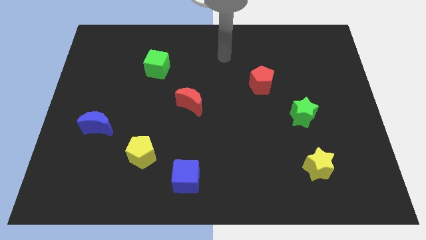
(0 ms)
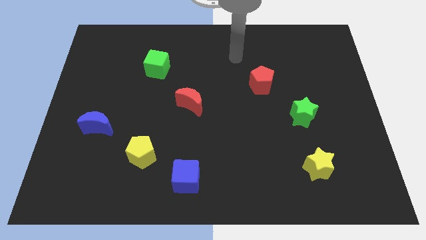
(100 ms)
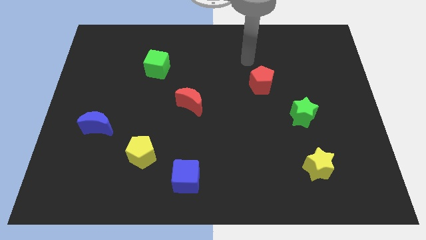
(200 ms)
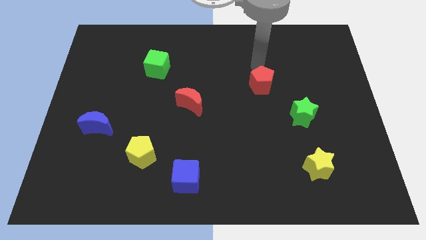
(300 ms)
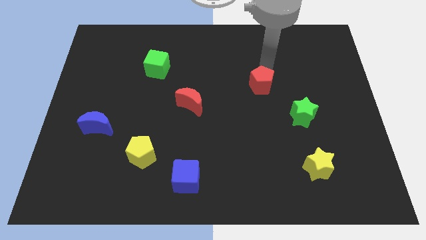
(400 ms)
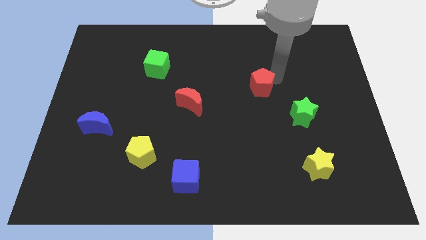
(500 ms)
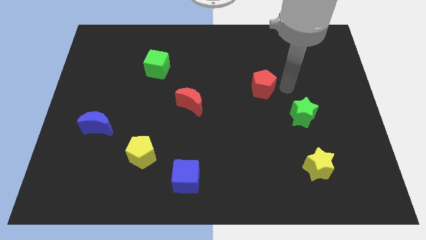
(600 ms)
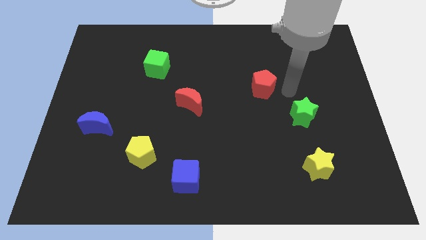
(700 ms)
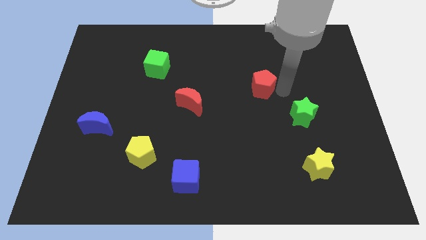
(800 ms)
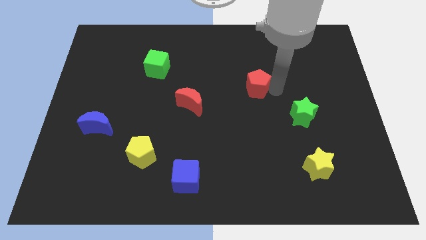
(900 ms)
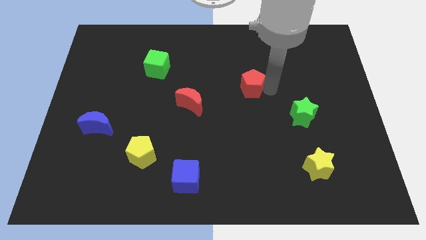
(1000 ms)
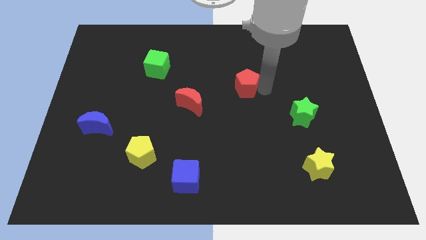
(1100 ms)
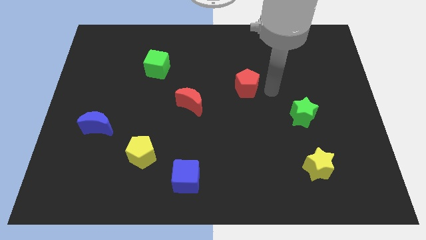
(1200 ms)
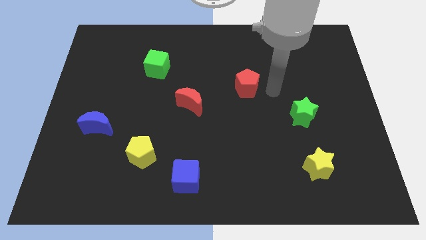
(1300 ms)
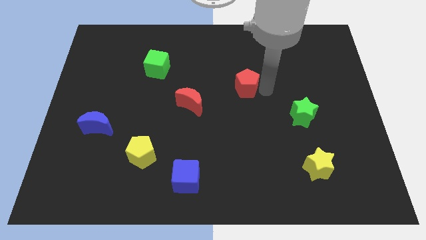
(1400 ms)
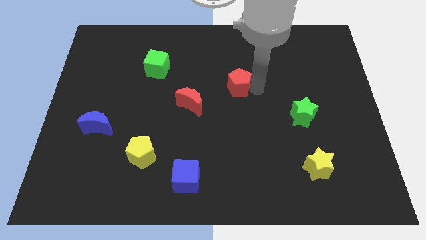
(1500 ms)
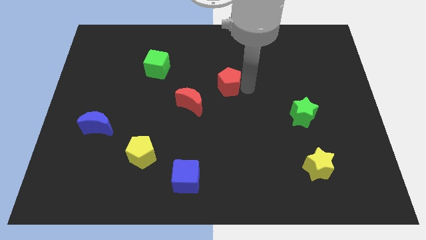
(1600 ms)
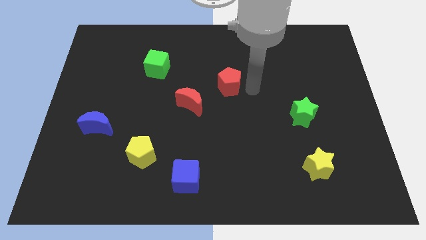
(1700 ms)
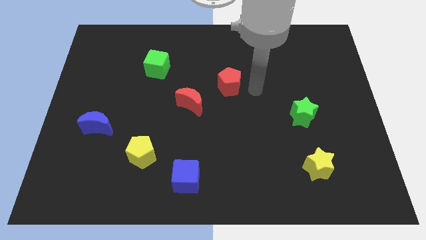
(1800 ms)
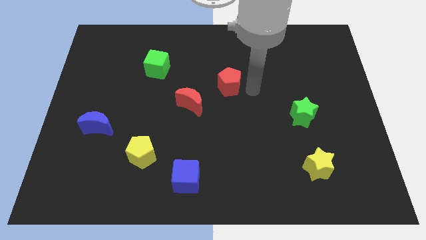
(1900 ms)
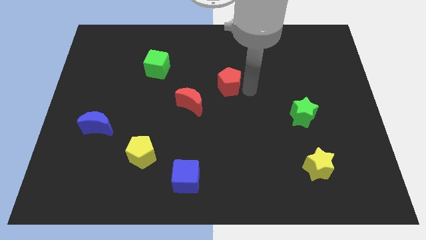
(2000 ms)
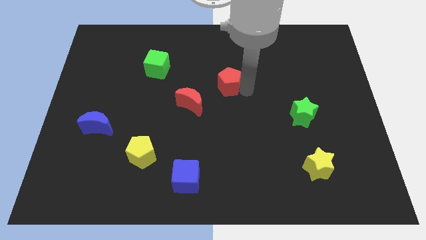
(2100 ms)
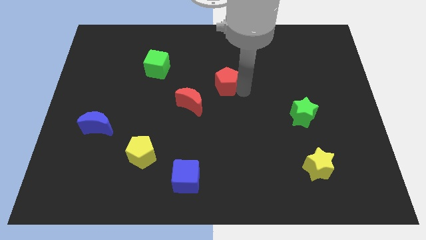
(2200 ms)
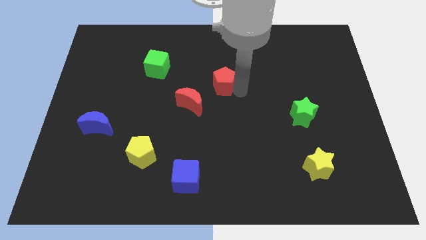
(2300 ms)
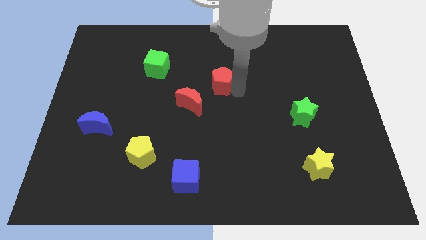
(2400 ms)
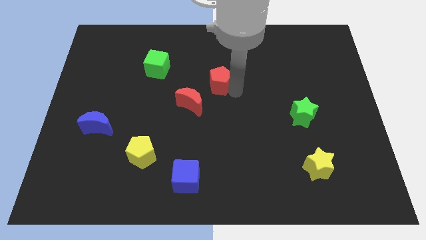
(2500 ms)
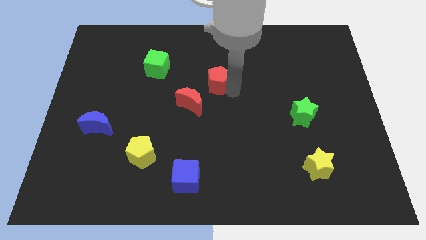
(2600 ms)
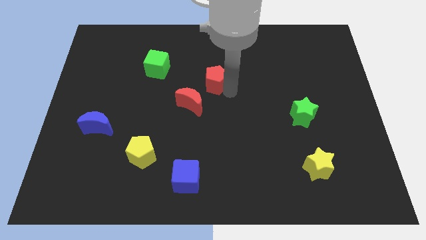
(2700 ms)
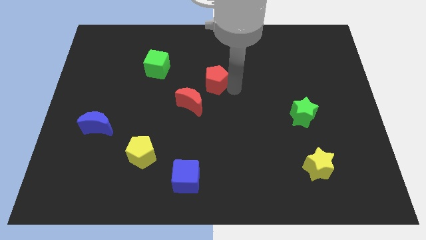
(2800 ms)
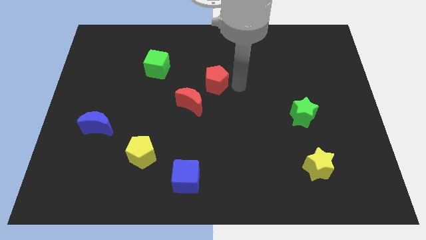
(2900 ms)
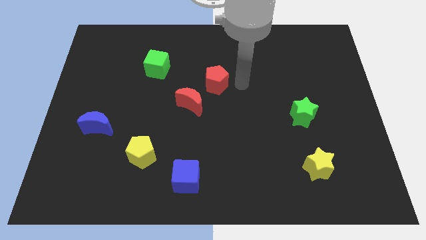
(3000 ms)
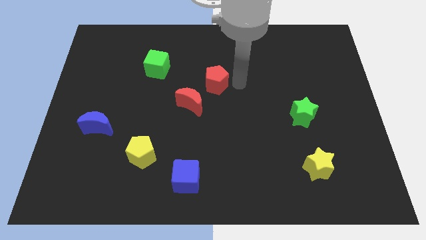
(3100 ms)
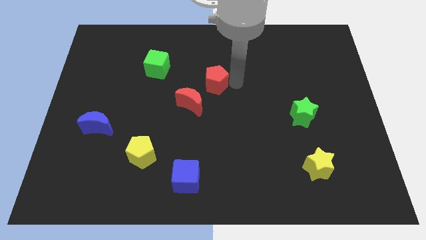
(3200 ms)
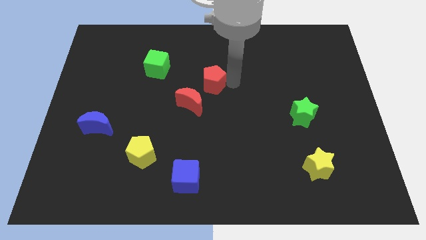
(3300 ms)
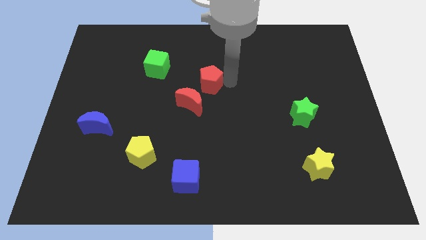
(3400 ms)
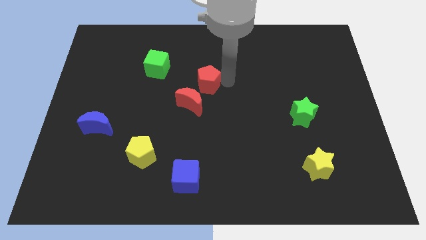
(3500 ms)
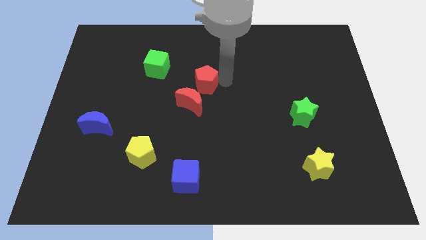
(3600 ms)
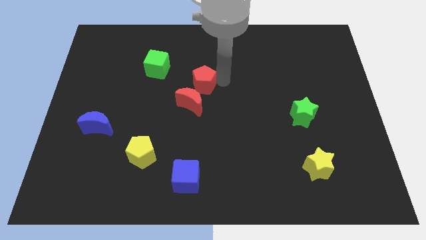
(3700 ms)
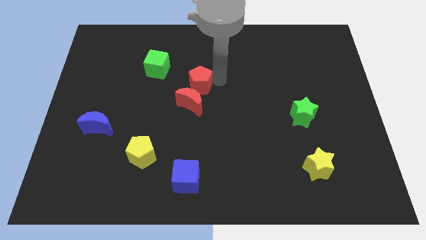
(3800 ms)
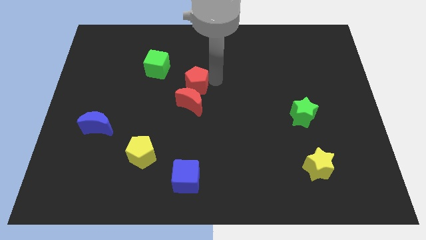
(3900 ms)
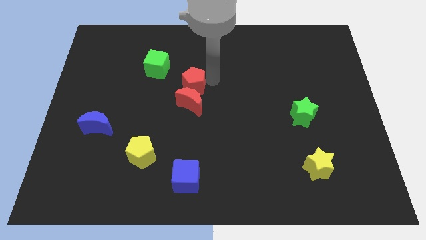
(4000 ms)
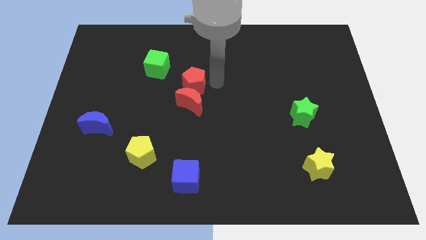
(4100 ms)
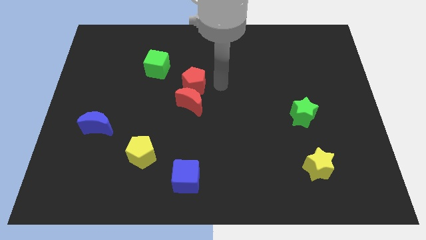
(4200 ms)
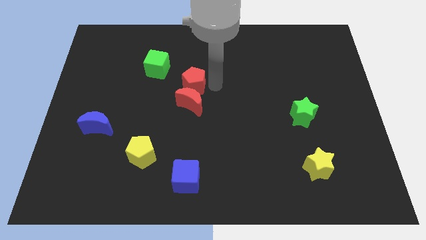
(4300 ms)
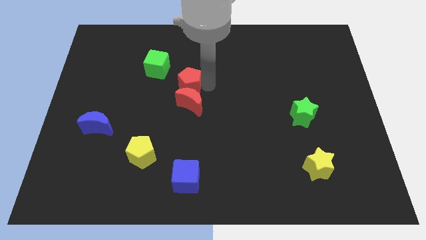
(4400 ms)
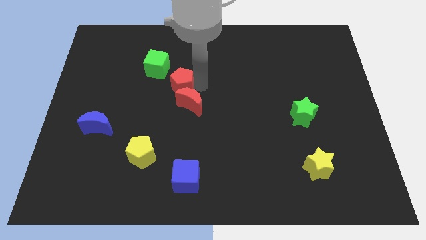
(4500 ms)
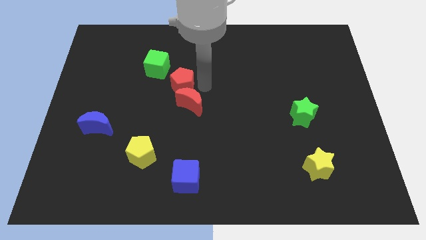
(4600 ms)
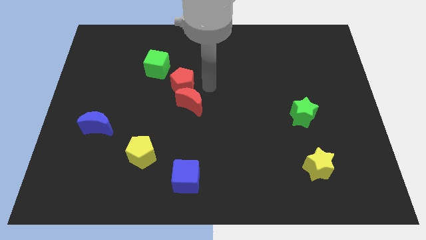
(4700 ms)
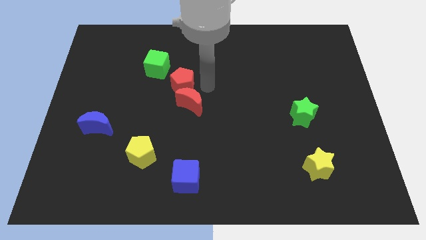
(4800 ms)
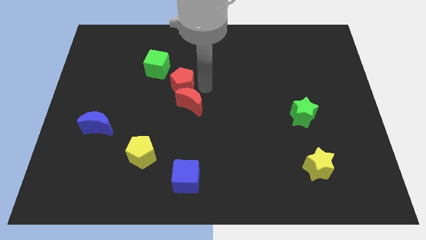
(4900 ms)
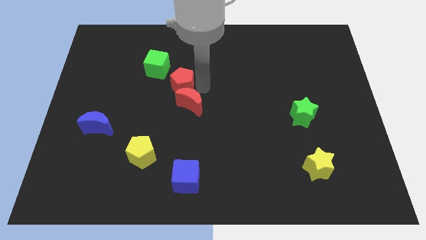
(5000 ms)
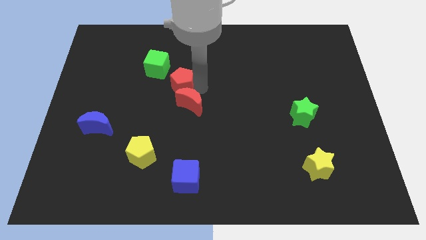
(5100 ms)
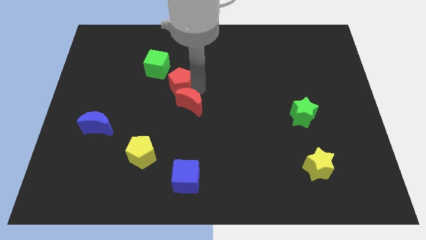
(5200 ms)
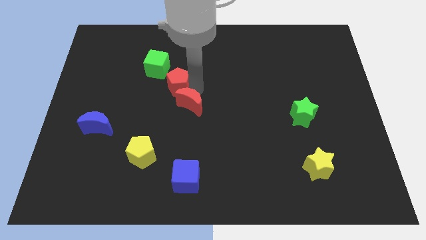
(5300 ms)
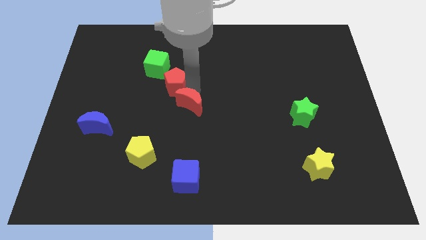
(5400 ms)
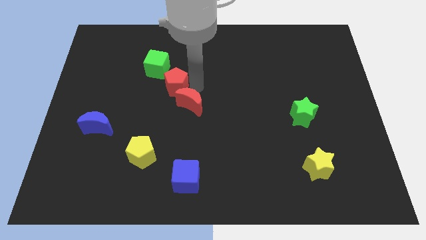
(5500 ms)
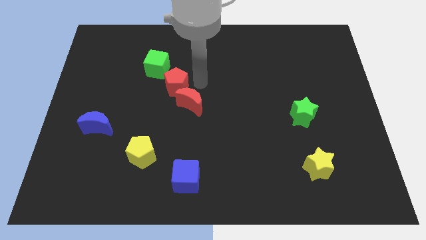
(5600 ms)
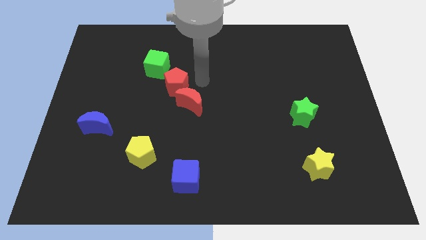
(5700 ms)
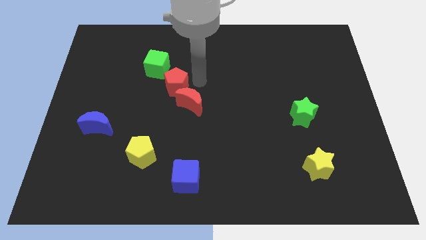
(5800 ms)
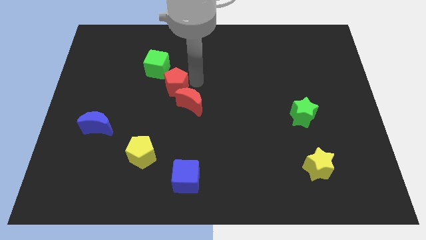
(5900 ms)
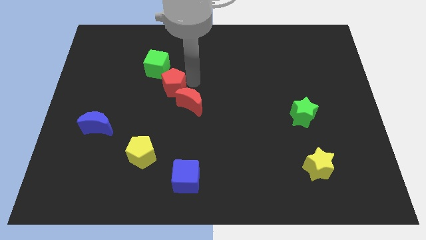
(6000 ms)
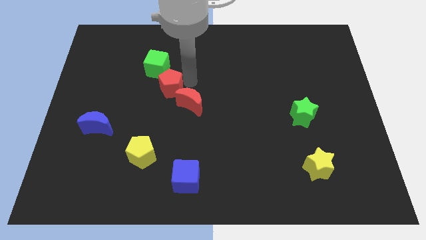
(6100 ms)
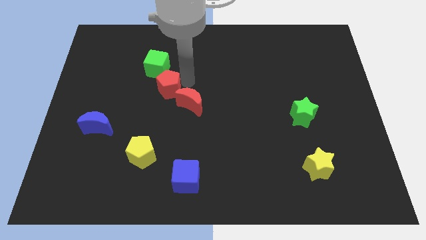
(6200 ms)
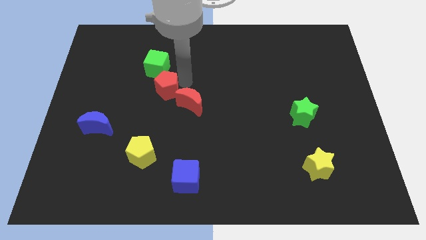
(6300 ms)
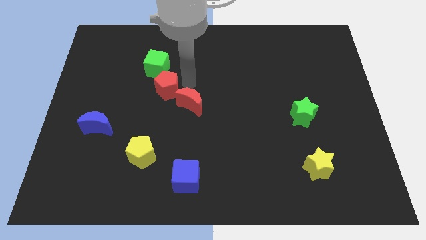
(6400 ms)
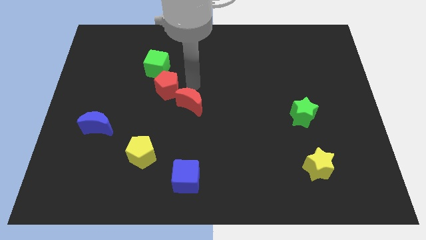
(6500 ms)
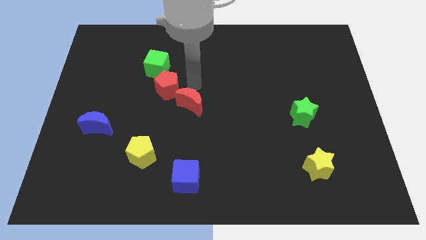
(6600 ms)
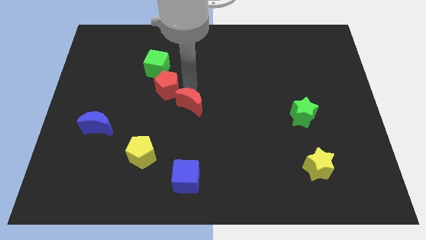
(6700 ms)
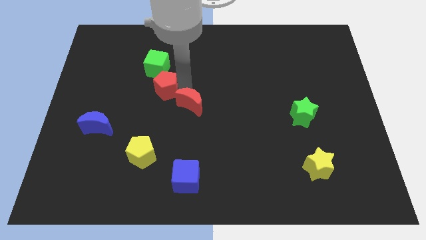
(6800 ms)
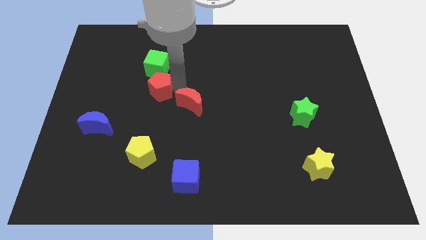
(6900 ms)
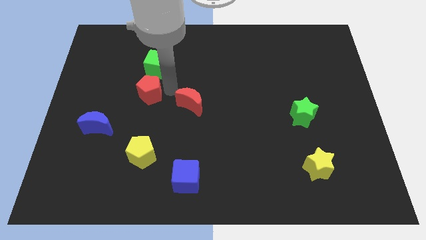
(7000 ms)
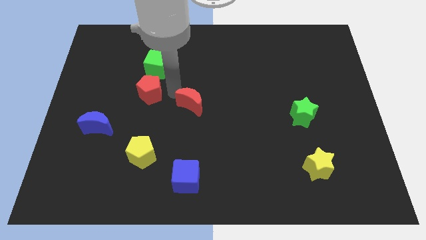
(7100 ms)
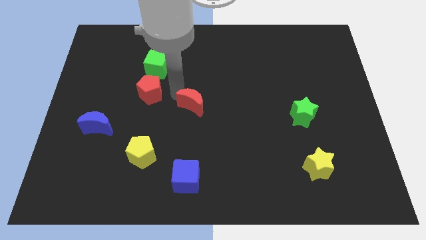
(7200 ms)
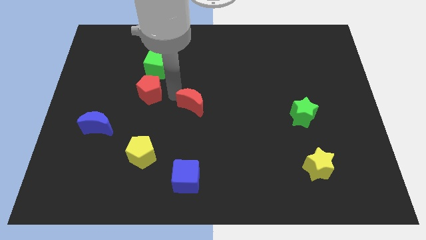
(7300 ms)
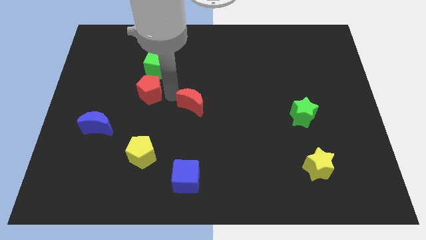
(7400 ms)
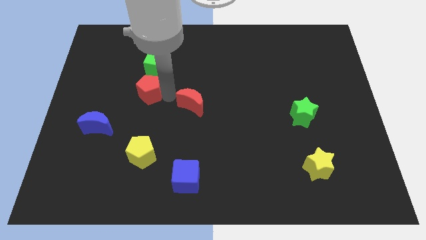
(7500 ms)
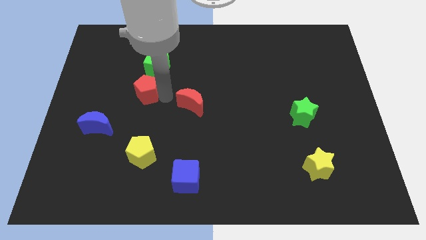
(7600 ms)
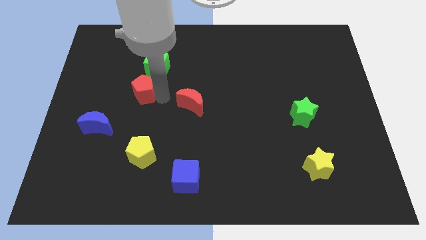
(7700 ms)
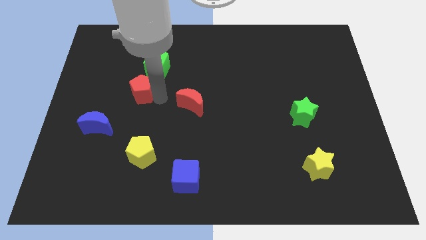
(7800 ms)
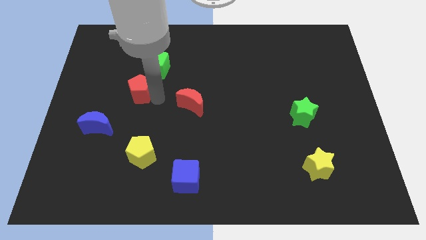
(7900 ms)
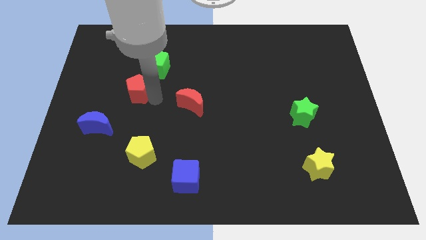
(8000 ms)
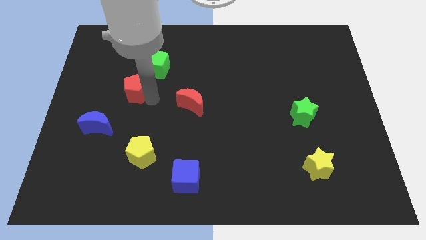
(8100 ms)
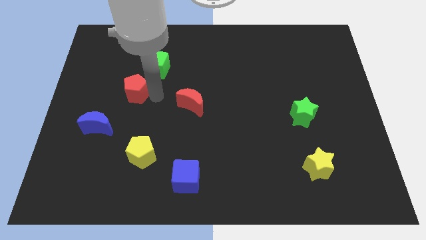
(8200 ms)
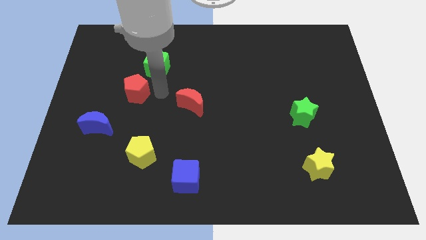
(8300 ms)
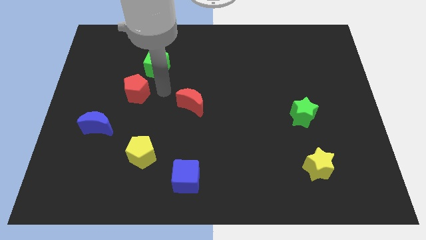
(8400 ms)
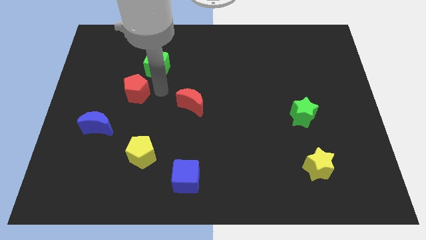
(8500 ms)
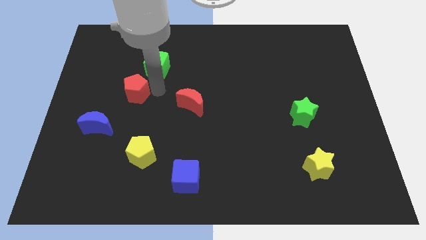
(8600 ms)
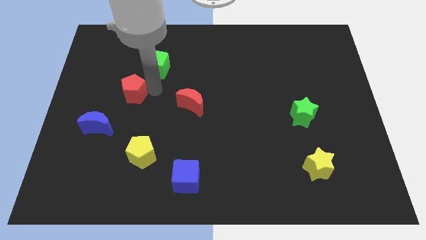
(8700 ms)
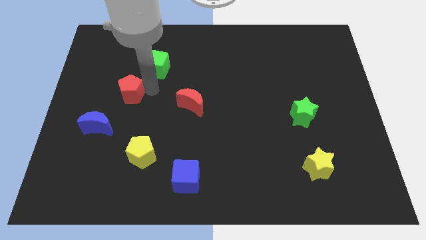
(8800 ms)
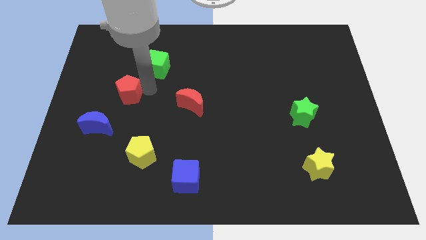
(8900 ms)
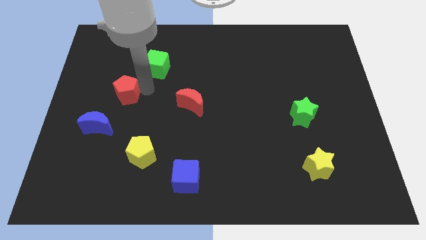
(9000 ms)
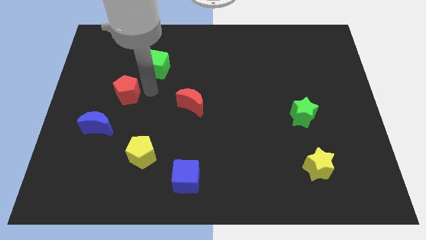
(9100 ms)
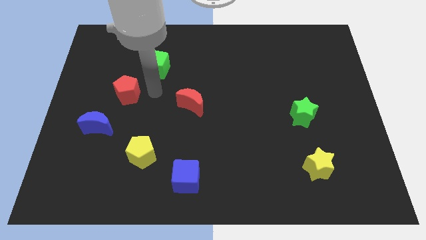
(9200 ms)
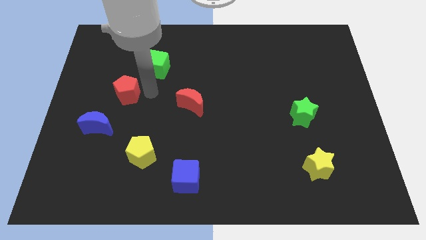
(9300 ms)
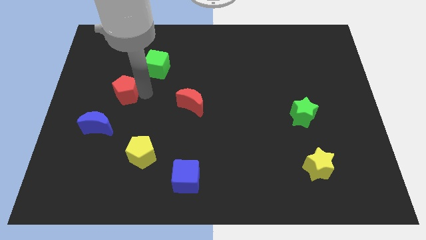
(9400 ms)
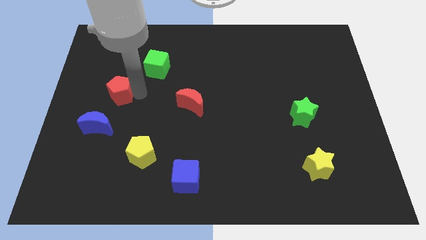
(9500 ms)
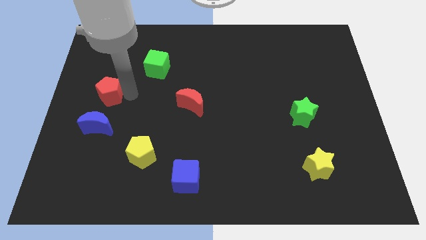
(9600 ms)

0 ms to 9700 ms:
put the red pentagon to the center left
